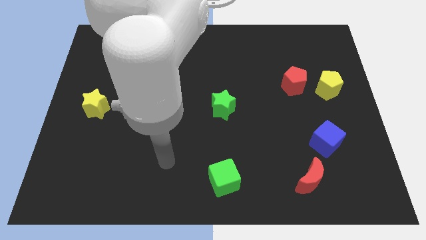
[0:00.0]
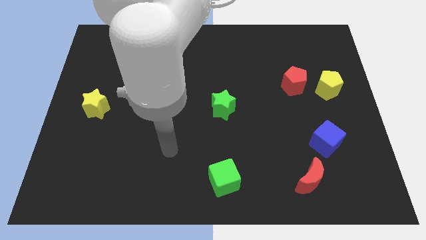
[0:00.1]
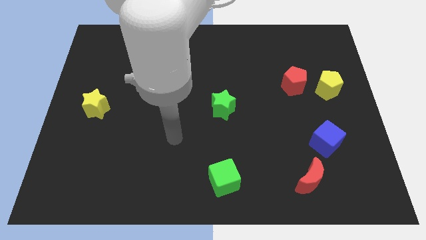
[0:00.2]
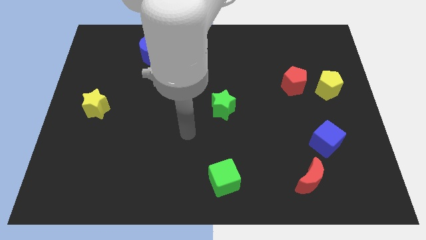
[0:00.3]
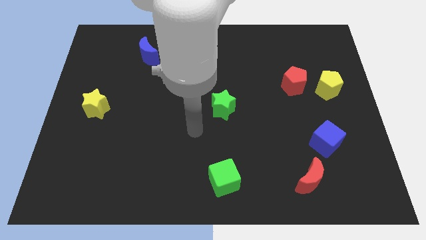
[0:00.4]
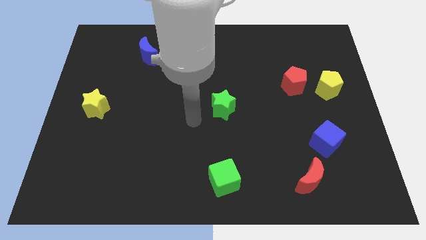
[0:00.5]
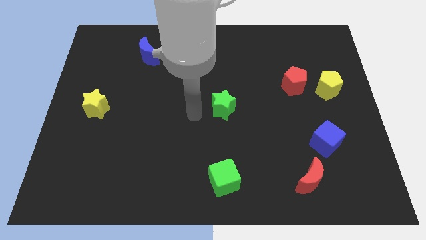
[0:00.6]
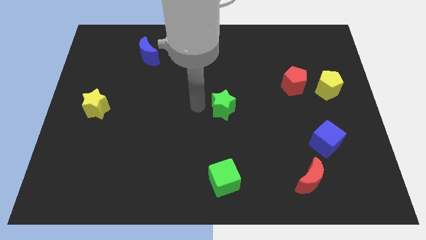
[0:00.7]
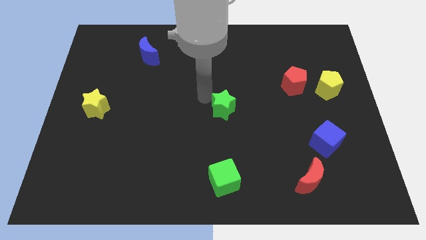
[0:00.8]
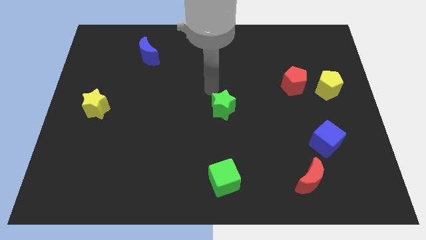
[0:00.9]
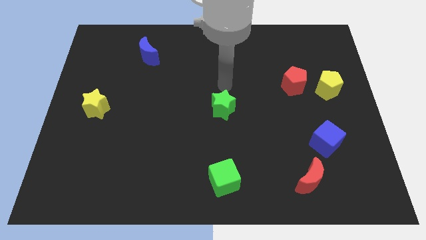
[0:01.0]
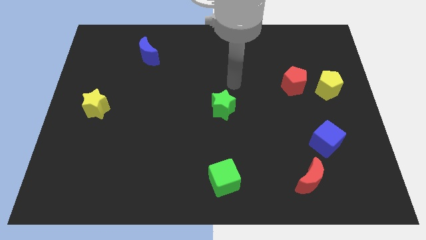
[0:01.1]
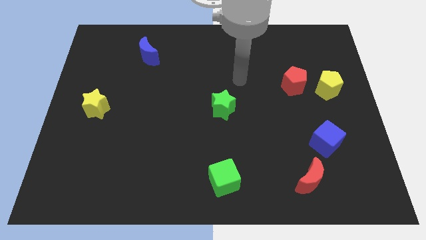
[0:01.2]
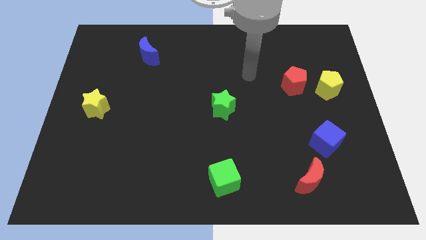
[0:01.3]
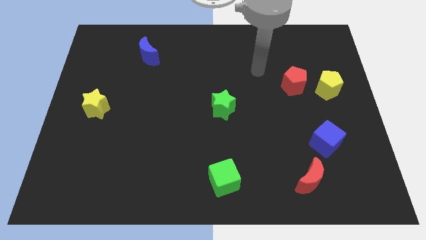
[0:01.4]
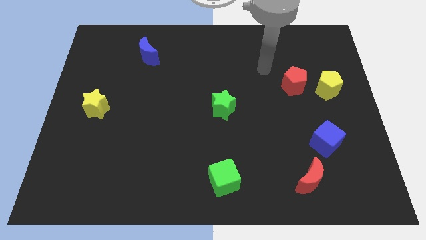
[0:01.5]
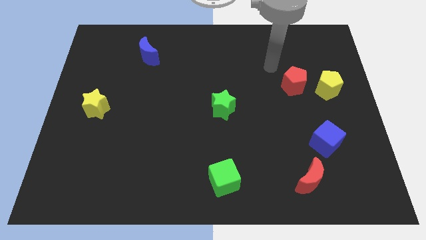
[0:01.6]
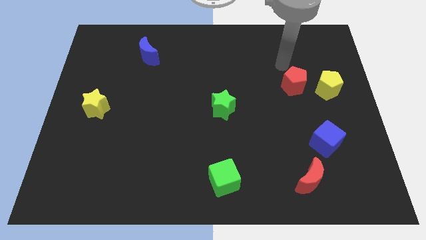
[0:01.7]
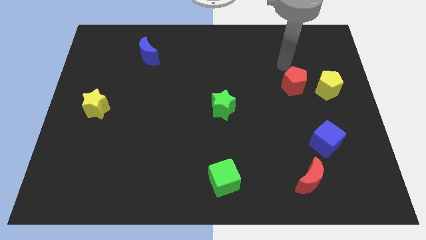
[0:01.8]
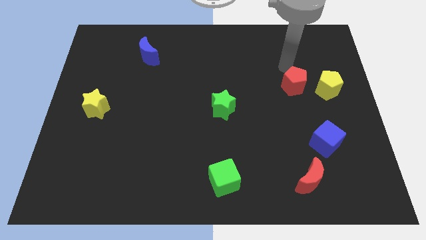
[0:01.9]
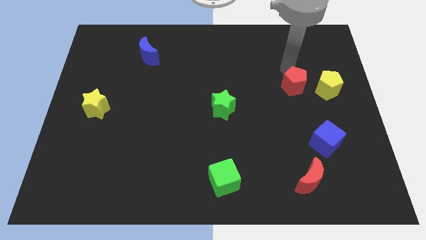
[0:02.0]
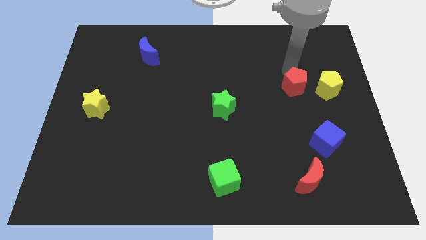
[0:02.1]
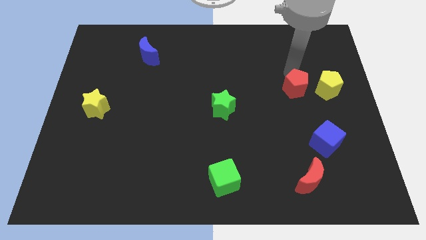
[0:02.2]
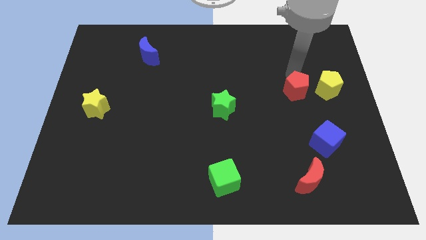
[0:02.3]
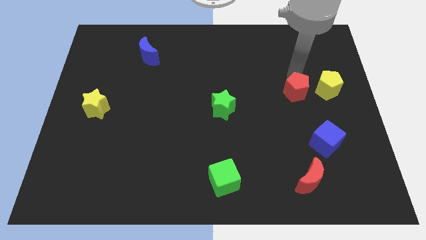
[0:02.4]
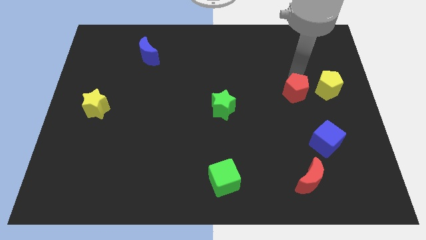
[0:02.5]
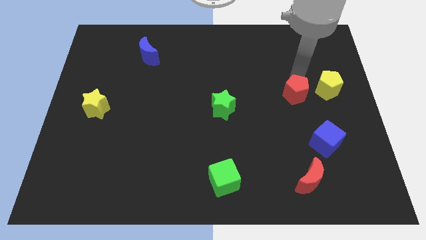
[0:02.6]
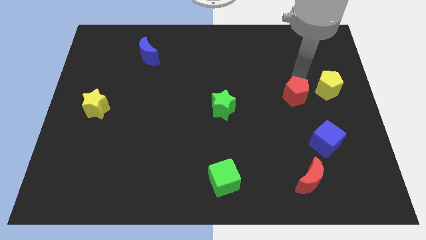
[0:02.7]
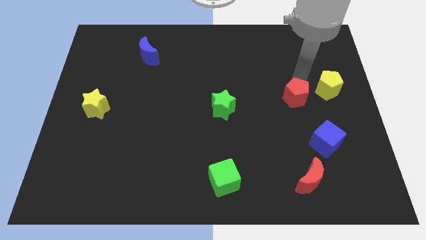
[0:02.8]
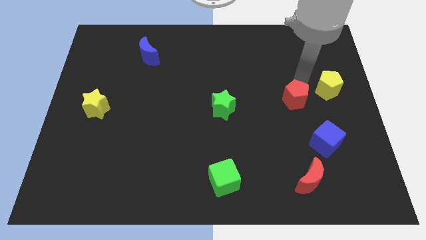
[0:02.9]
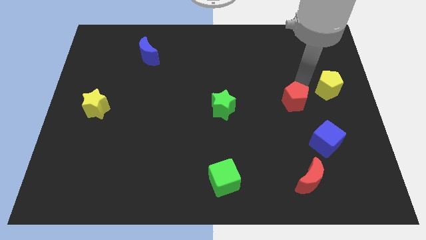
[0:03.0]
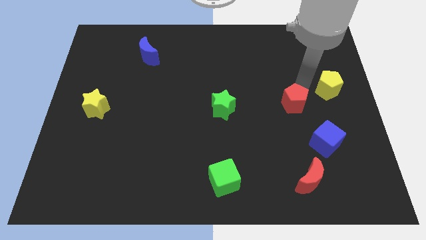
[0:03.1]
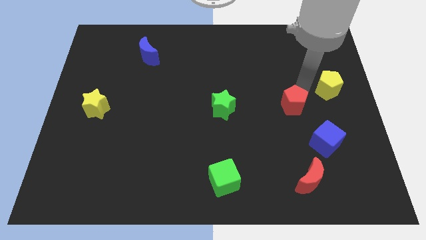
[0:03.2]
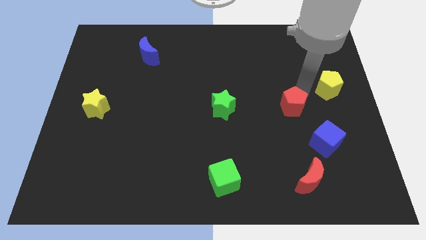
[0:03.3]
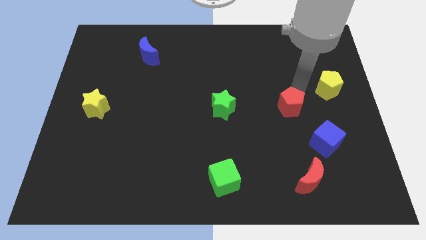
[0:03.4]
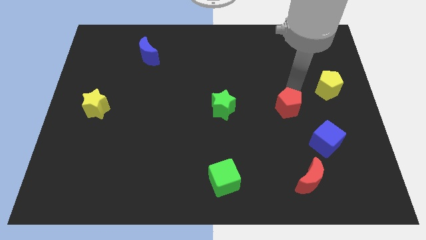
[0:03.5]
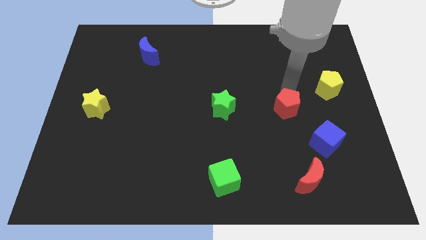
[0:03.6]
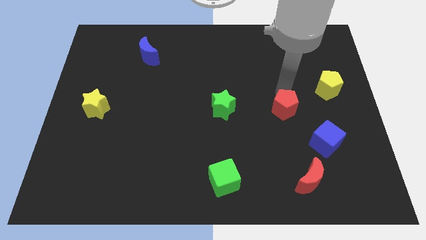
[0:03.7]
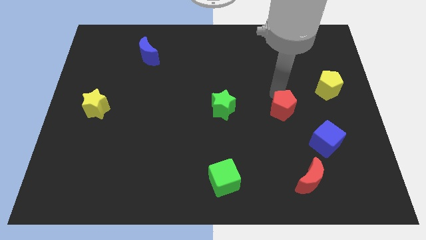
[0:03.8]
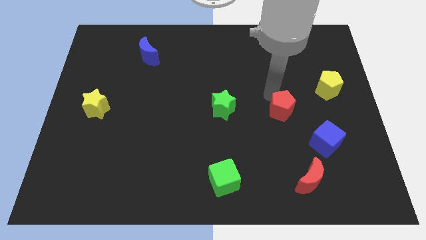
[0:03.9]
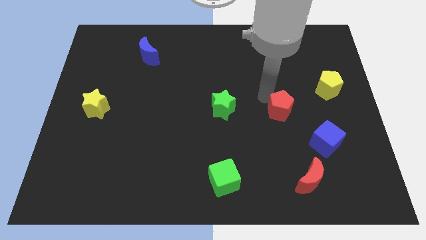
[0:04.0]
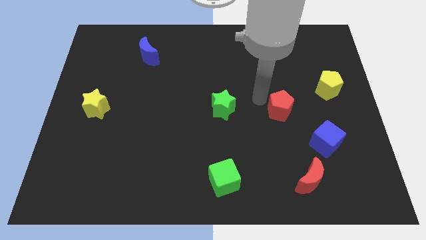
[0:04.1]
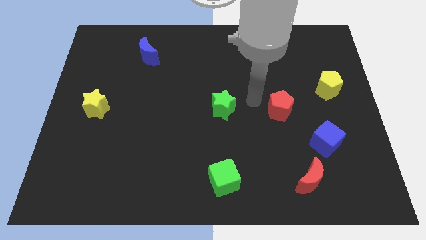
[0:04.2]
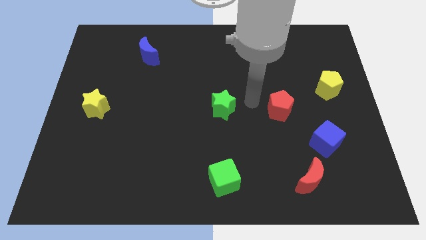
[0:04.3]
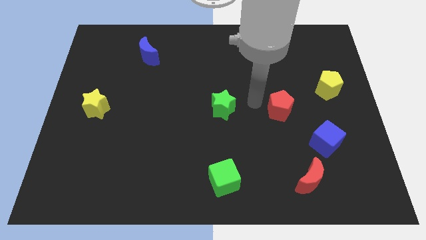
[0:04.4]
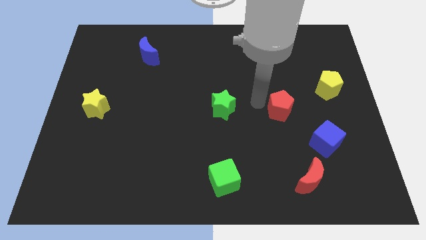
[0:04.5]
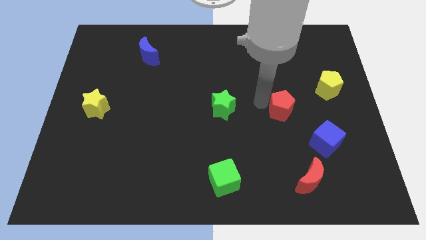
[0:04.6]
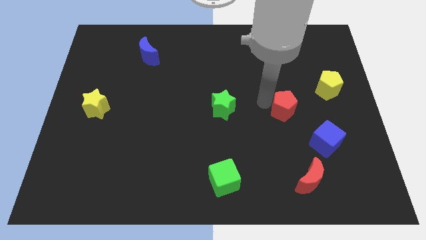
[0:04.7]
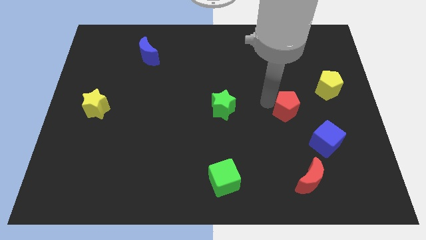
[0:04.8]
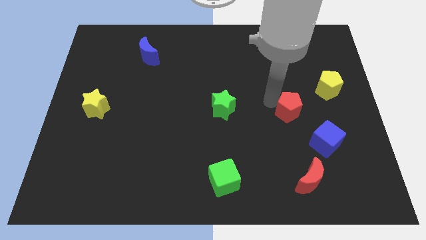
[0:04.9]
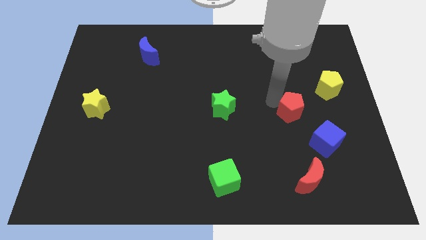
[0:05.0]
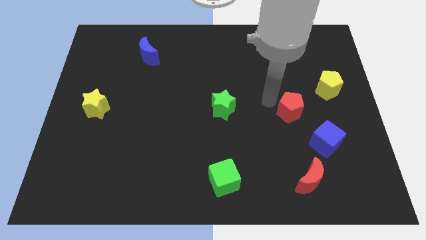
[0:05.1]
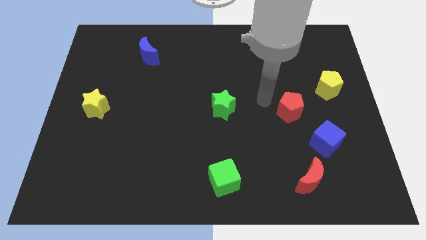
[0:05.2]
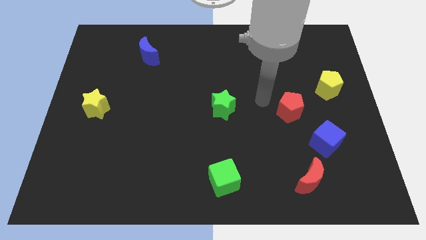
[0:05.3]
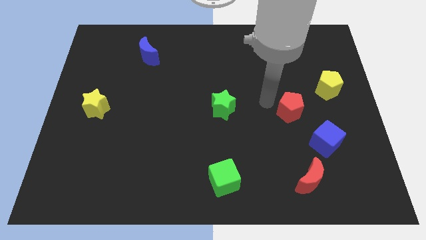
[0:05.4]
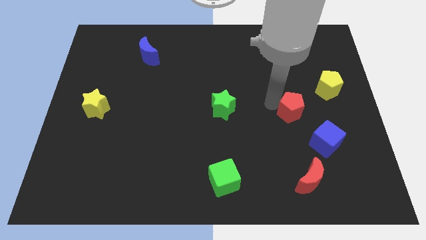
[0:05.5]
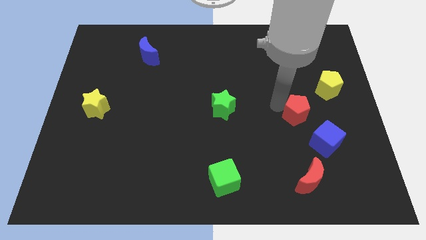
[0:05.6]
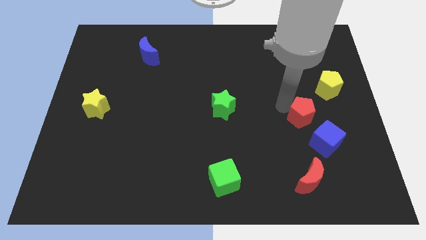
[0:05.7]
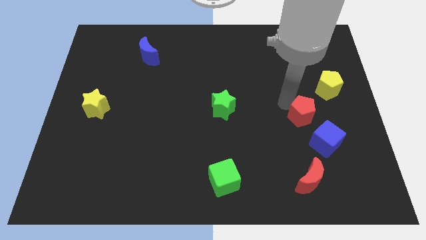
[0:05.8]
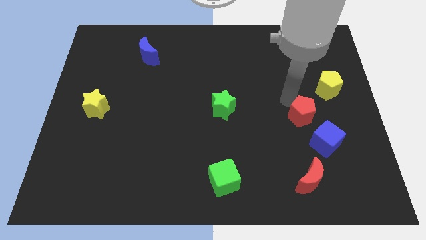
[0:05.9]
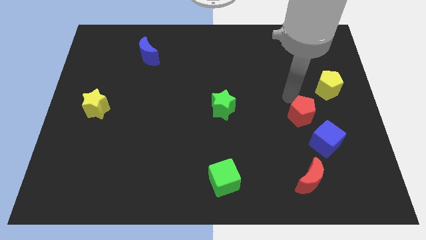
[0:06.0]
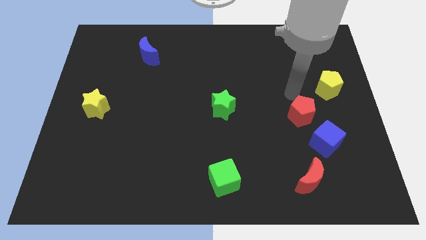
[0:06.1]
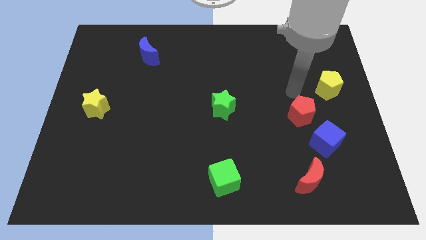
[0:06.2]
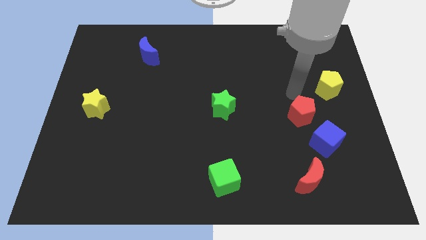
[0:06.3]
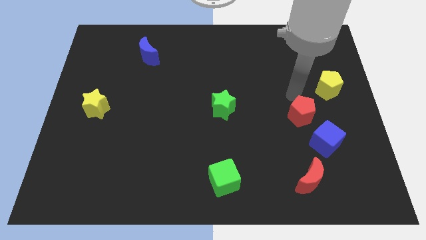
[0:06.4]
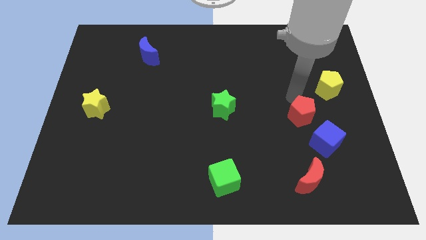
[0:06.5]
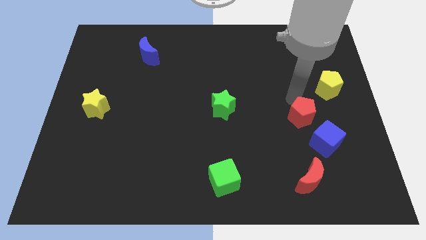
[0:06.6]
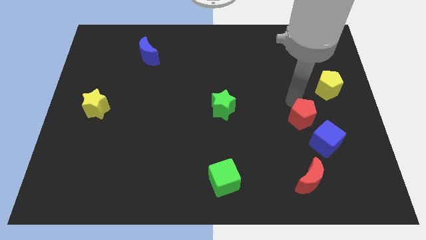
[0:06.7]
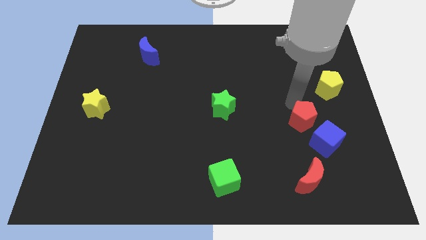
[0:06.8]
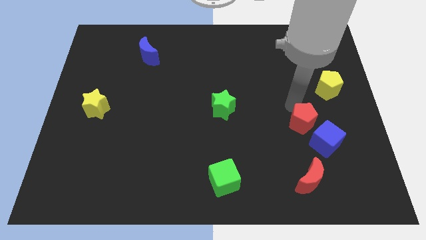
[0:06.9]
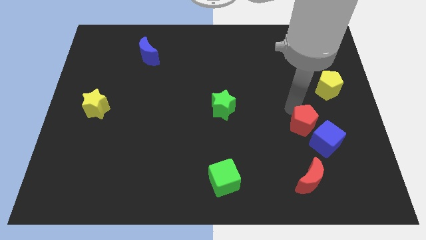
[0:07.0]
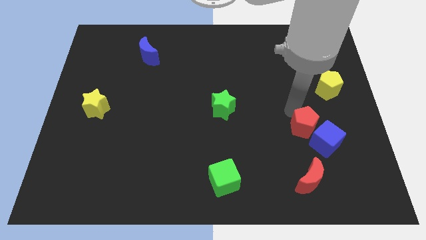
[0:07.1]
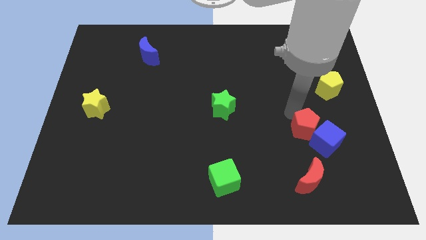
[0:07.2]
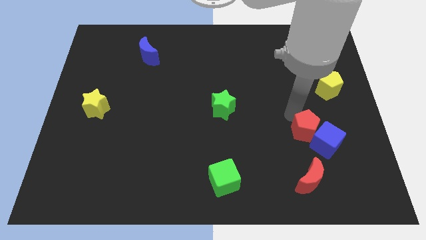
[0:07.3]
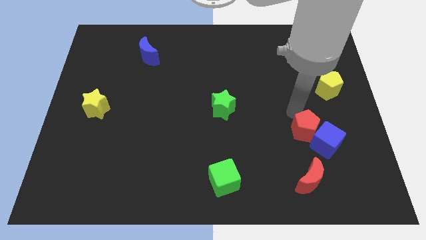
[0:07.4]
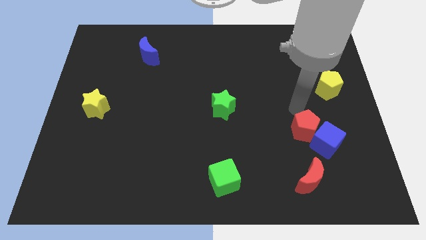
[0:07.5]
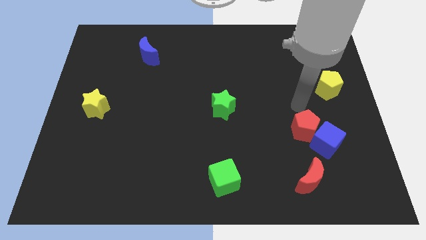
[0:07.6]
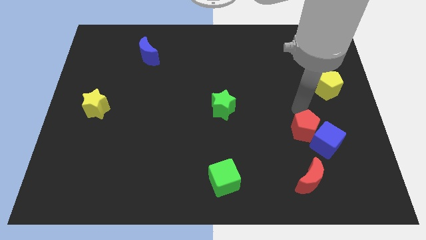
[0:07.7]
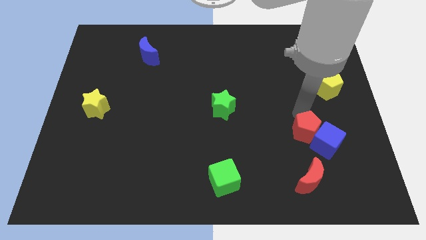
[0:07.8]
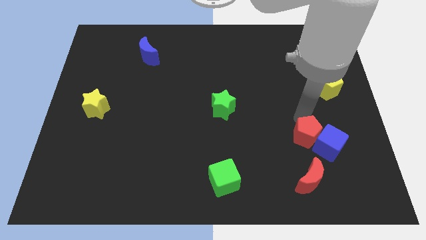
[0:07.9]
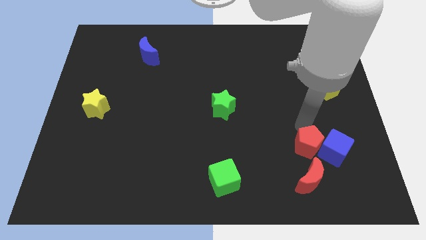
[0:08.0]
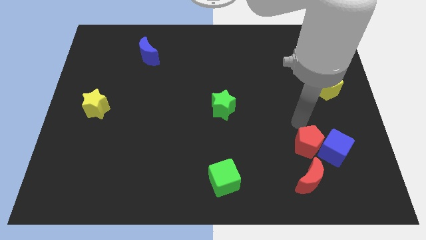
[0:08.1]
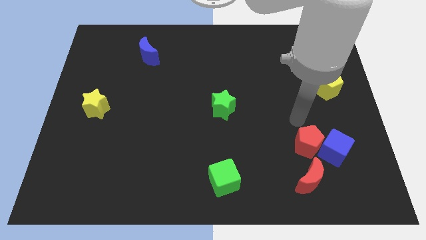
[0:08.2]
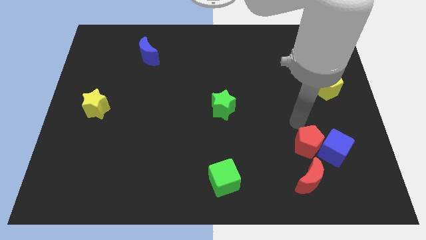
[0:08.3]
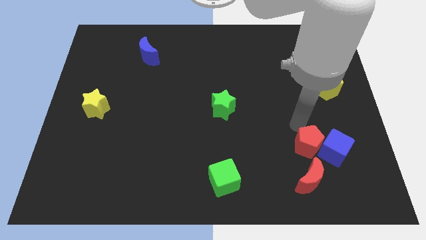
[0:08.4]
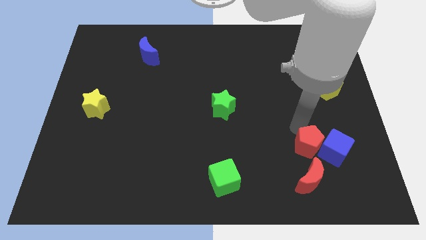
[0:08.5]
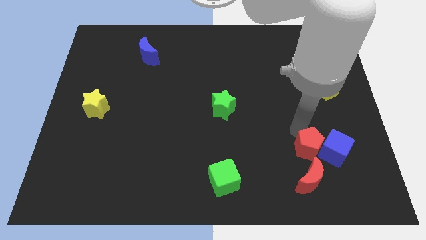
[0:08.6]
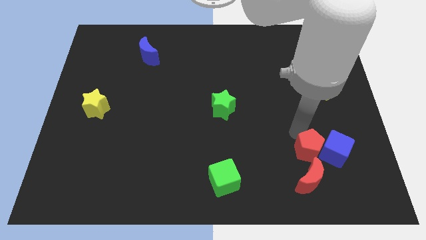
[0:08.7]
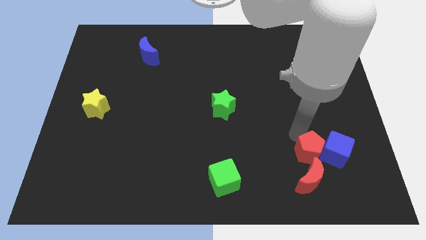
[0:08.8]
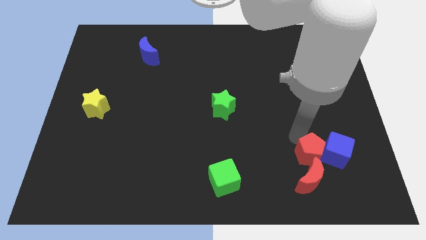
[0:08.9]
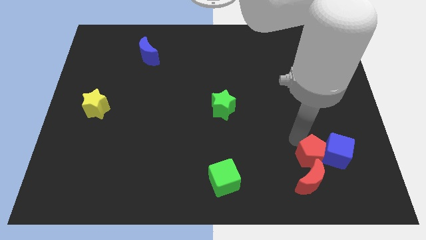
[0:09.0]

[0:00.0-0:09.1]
push the red pentagon next to the red moon
